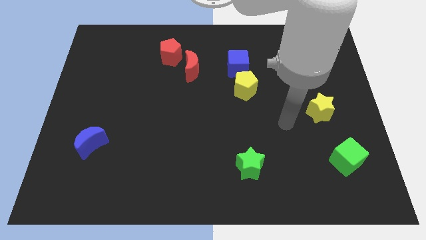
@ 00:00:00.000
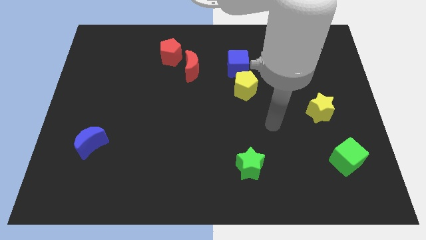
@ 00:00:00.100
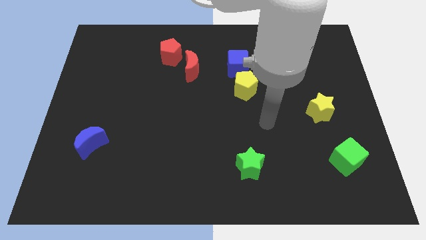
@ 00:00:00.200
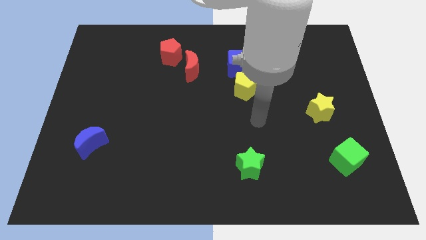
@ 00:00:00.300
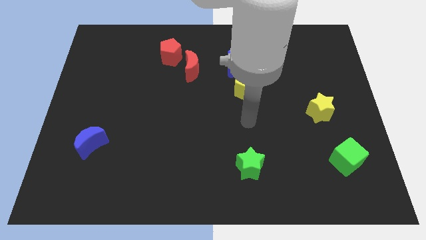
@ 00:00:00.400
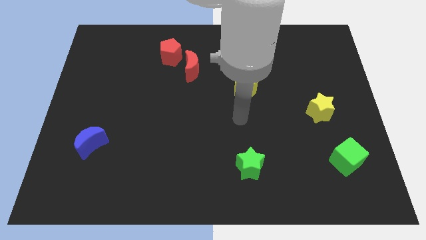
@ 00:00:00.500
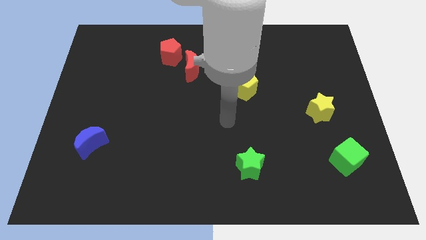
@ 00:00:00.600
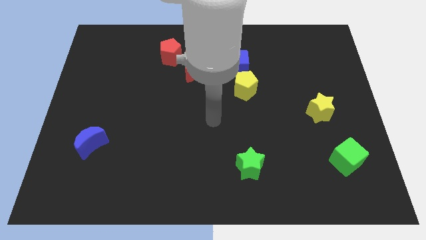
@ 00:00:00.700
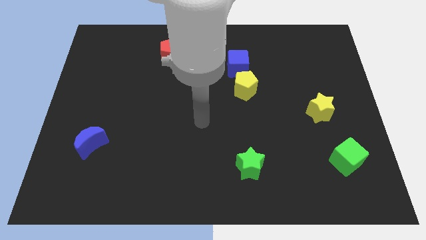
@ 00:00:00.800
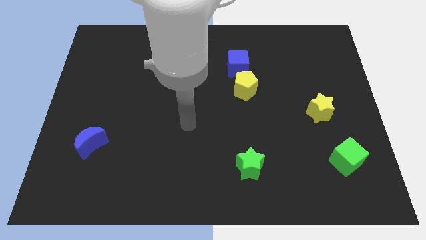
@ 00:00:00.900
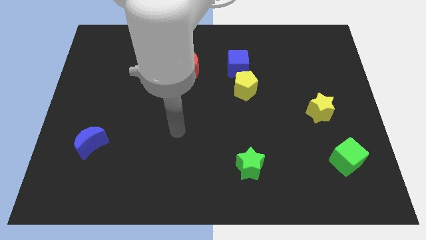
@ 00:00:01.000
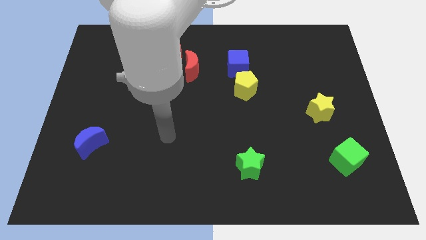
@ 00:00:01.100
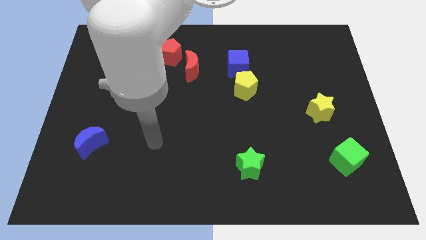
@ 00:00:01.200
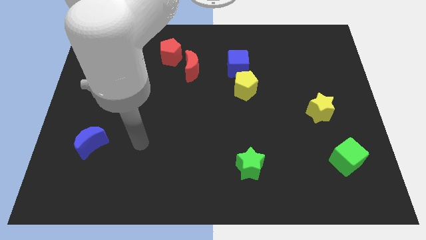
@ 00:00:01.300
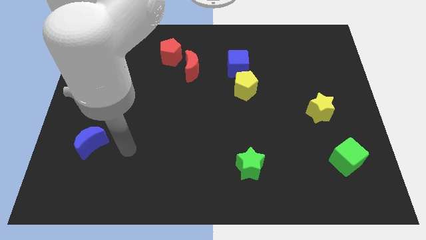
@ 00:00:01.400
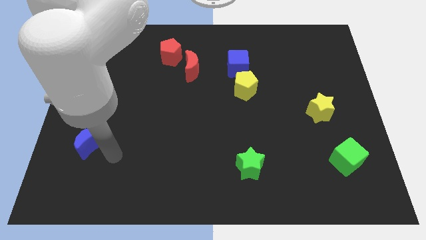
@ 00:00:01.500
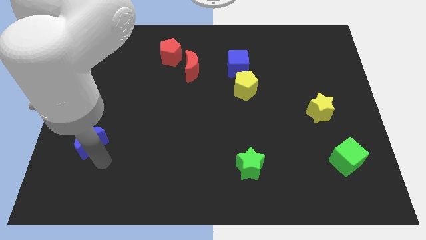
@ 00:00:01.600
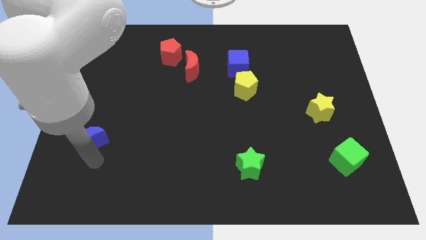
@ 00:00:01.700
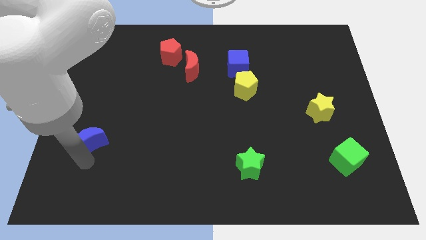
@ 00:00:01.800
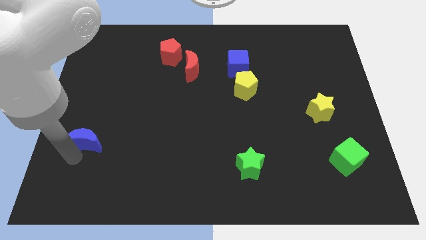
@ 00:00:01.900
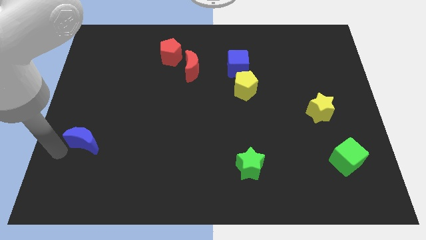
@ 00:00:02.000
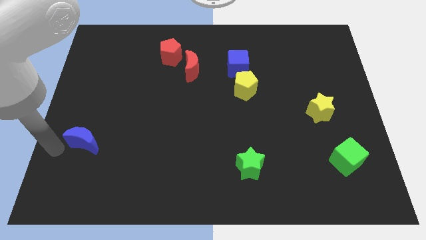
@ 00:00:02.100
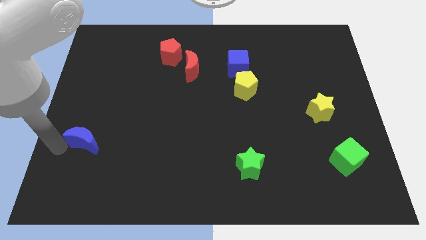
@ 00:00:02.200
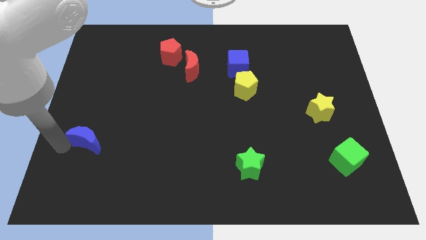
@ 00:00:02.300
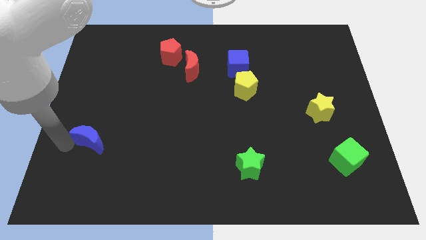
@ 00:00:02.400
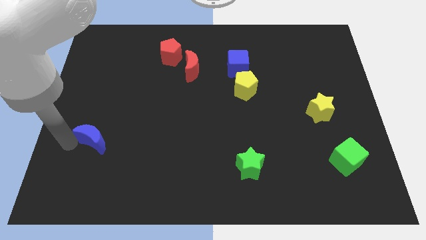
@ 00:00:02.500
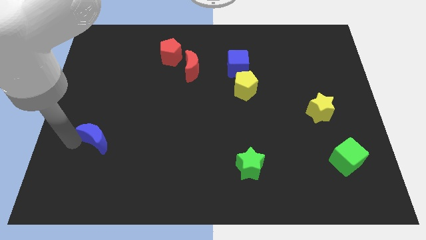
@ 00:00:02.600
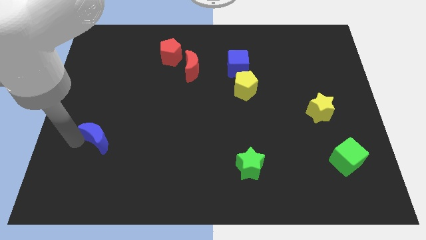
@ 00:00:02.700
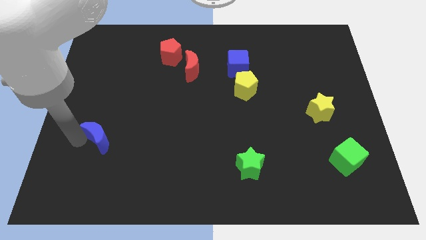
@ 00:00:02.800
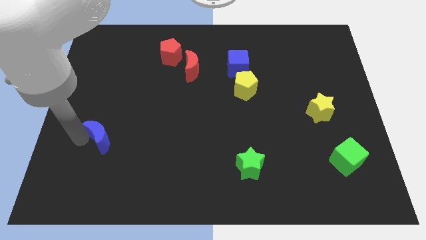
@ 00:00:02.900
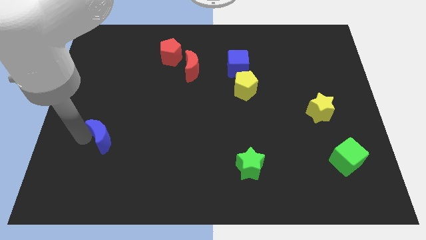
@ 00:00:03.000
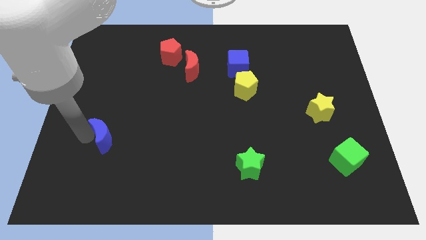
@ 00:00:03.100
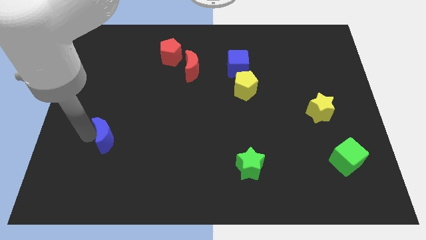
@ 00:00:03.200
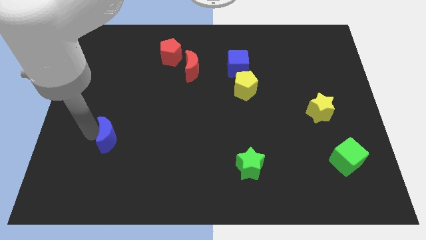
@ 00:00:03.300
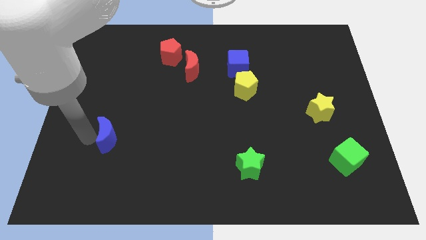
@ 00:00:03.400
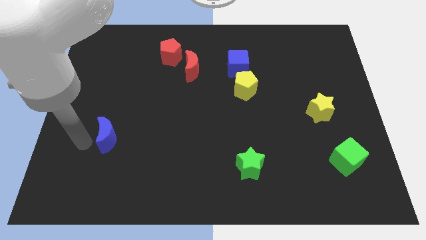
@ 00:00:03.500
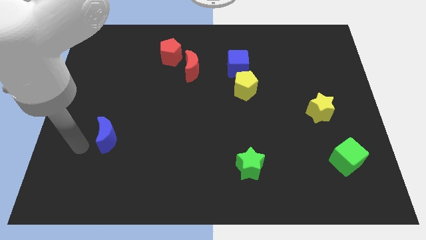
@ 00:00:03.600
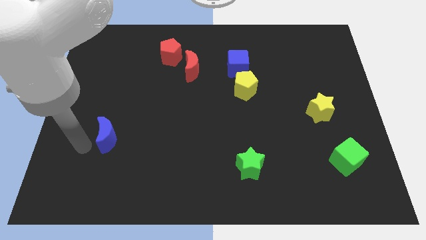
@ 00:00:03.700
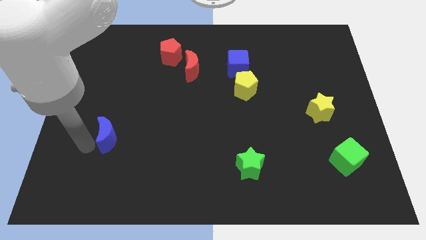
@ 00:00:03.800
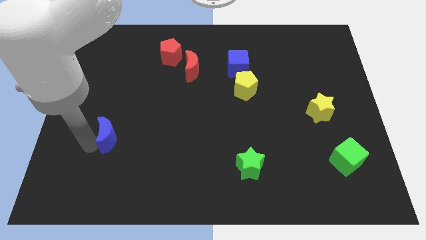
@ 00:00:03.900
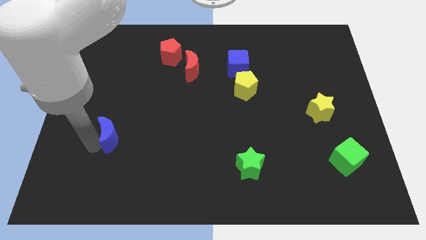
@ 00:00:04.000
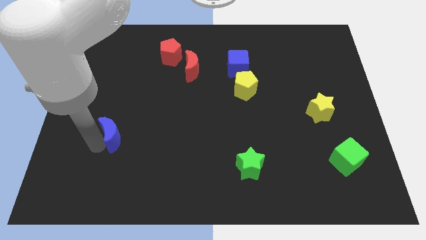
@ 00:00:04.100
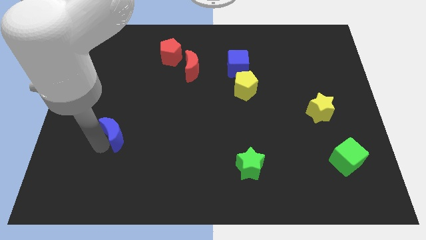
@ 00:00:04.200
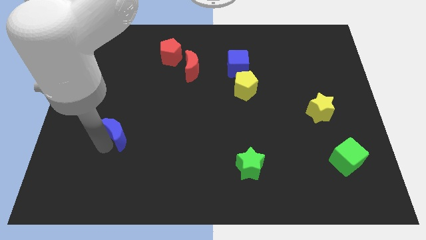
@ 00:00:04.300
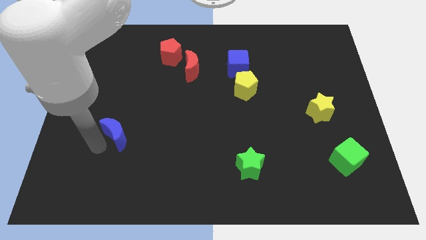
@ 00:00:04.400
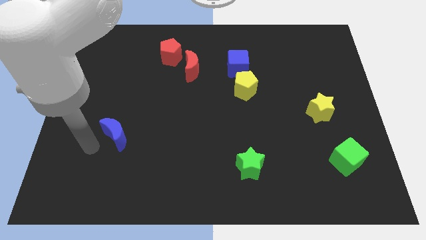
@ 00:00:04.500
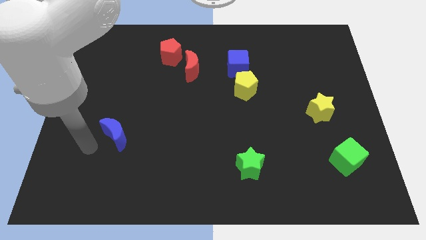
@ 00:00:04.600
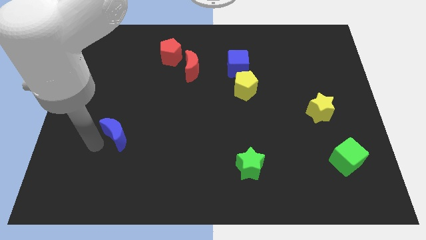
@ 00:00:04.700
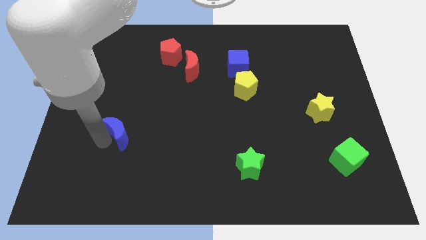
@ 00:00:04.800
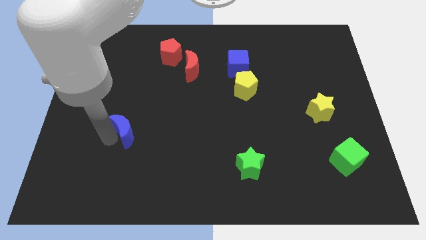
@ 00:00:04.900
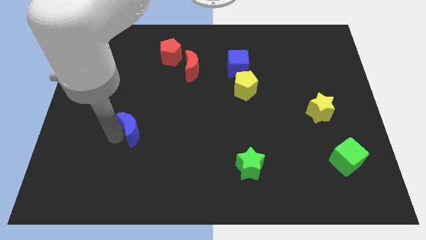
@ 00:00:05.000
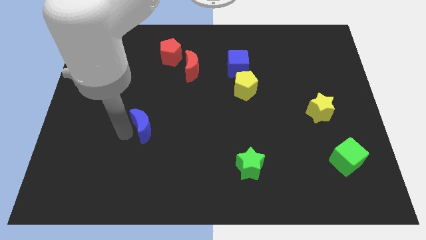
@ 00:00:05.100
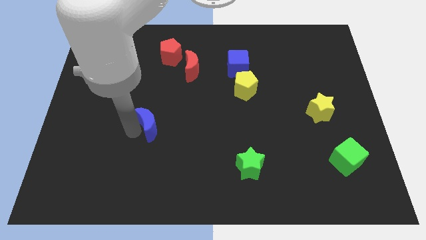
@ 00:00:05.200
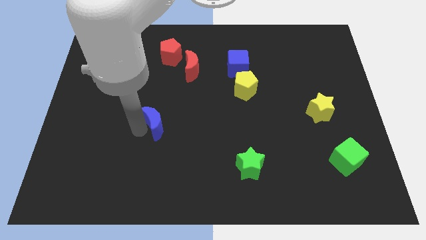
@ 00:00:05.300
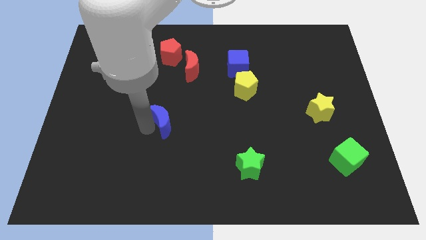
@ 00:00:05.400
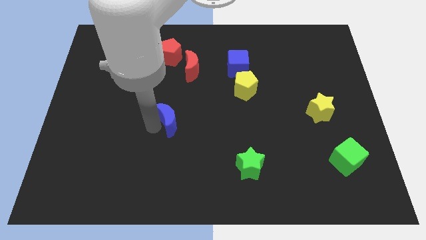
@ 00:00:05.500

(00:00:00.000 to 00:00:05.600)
slide the blue moon to the center of the board
